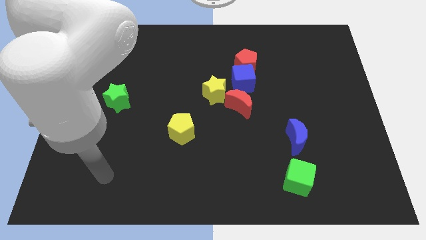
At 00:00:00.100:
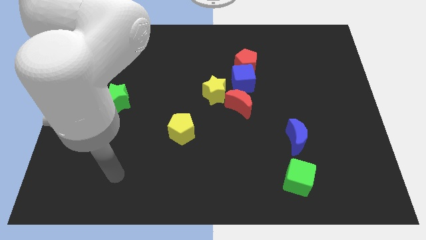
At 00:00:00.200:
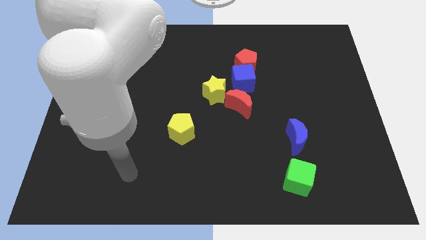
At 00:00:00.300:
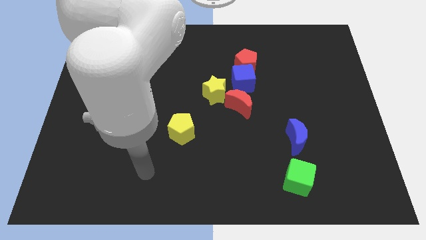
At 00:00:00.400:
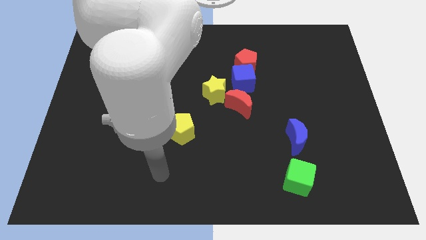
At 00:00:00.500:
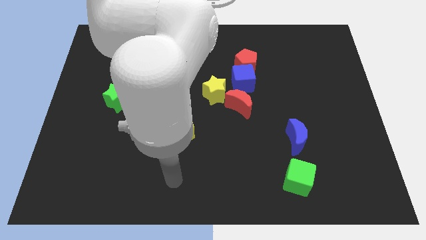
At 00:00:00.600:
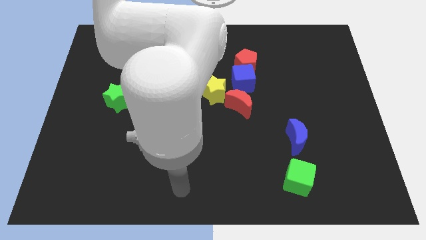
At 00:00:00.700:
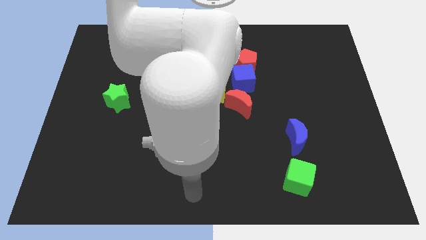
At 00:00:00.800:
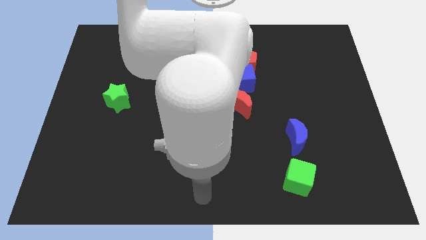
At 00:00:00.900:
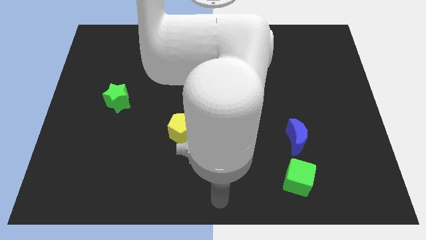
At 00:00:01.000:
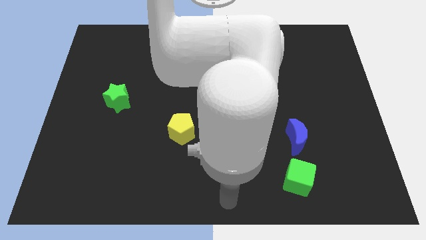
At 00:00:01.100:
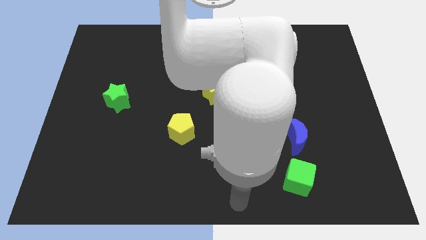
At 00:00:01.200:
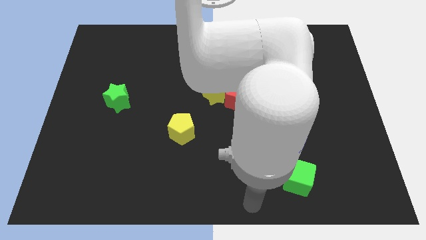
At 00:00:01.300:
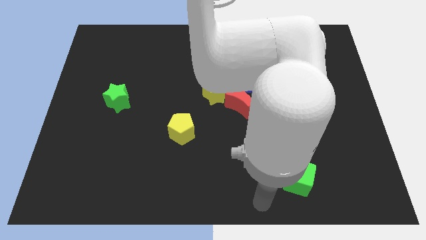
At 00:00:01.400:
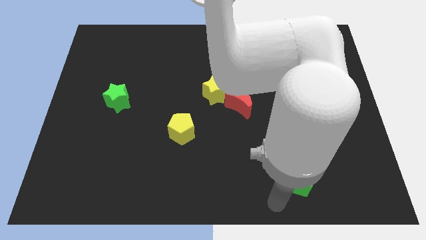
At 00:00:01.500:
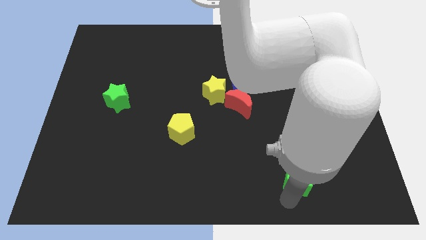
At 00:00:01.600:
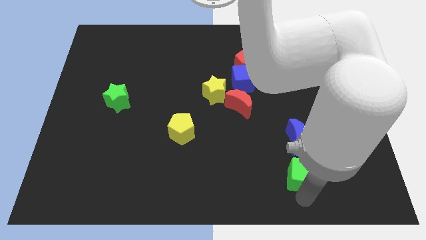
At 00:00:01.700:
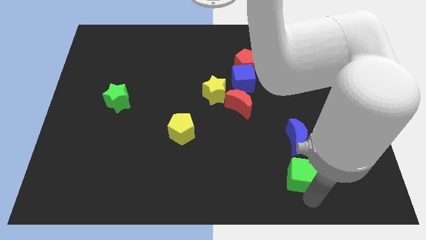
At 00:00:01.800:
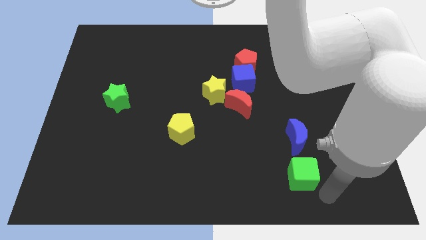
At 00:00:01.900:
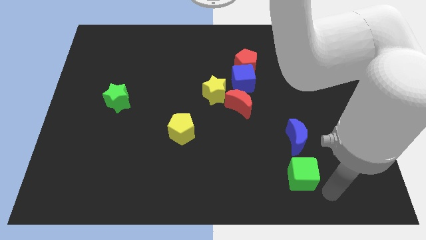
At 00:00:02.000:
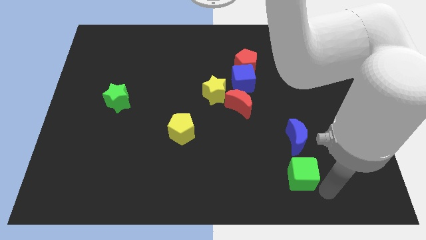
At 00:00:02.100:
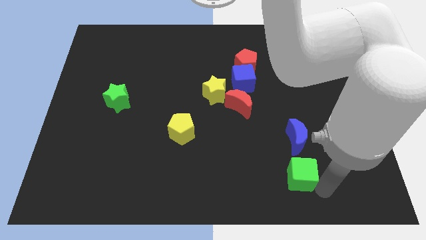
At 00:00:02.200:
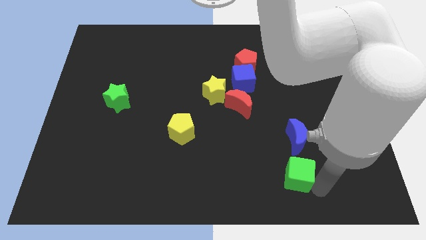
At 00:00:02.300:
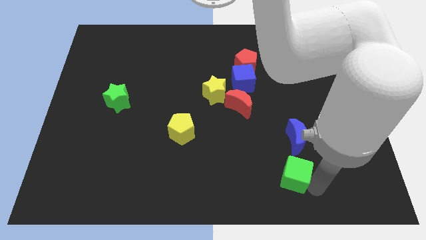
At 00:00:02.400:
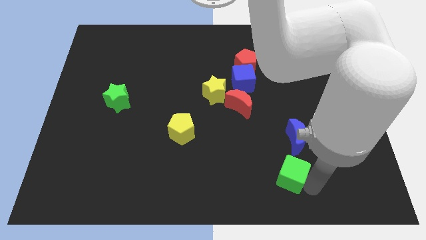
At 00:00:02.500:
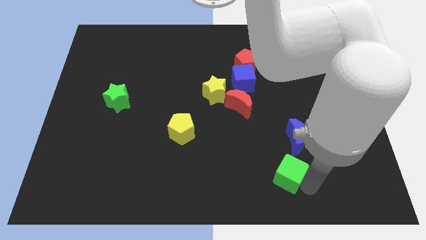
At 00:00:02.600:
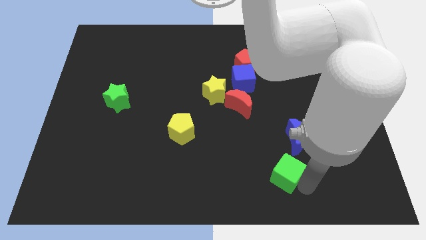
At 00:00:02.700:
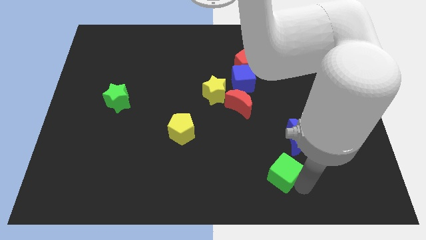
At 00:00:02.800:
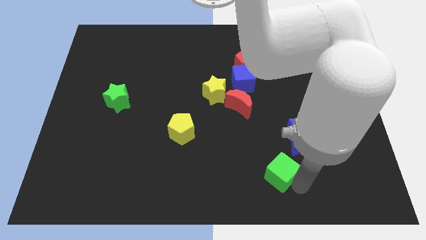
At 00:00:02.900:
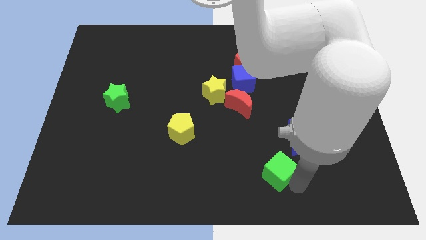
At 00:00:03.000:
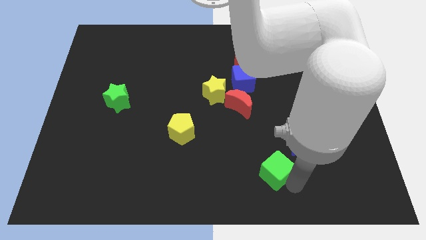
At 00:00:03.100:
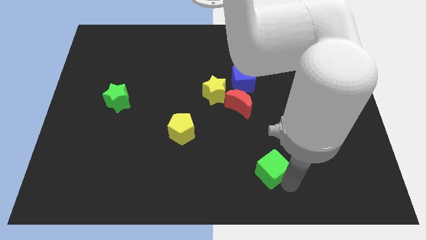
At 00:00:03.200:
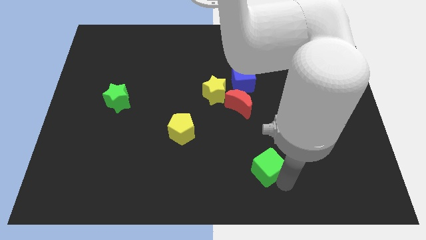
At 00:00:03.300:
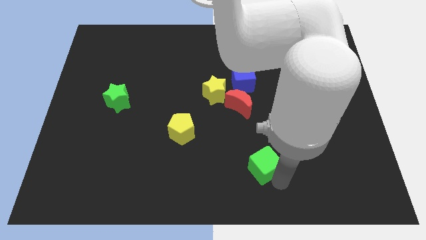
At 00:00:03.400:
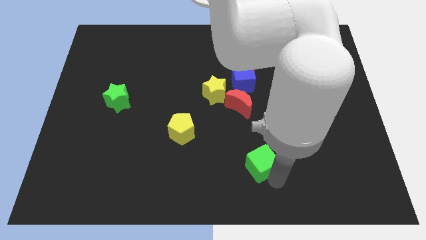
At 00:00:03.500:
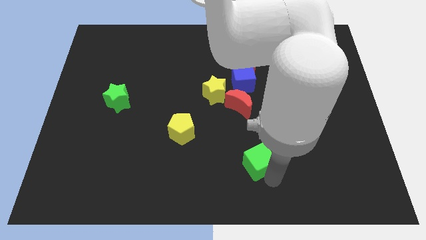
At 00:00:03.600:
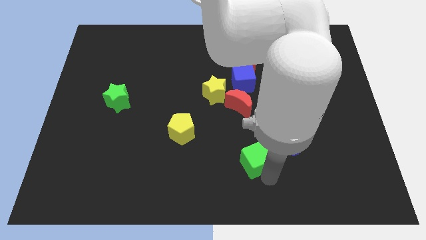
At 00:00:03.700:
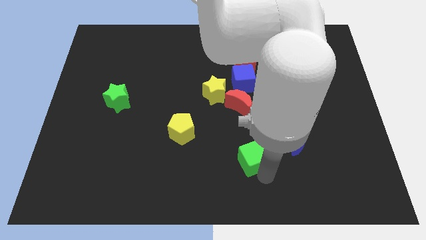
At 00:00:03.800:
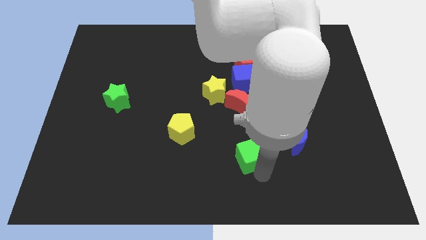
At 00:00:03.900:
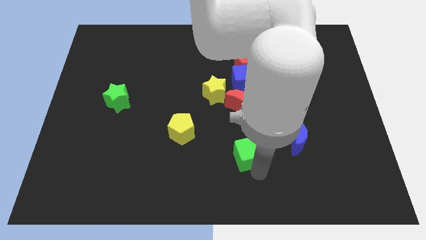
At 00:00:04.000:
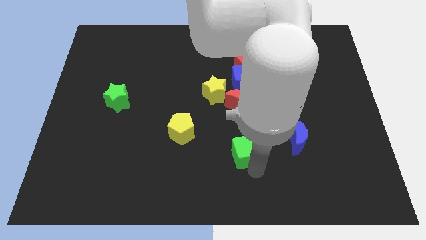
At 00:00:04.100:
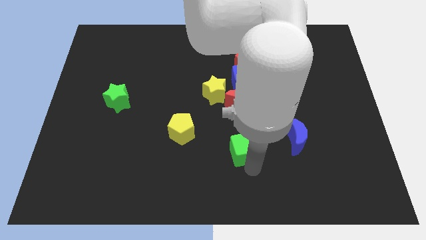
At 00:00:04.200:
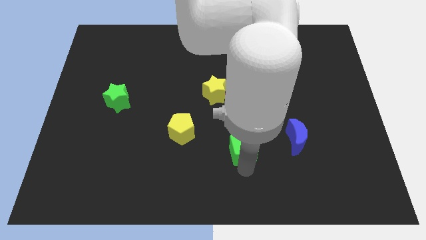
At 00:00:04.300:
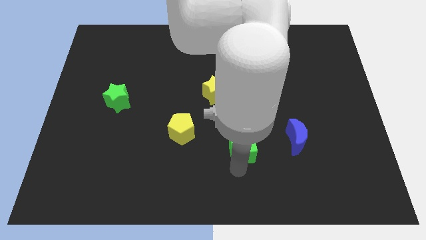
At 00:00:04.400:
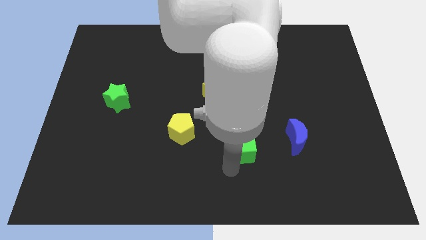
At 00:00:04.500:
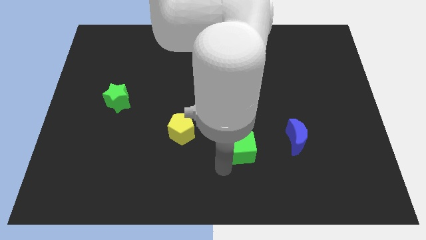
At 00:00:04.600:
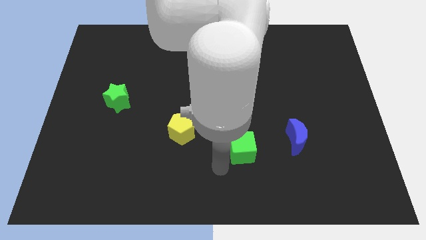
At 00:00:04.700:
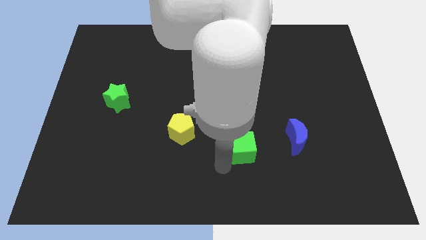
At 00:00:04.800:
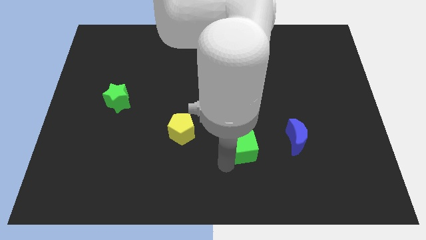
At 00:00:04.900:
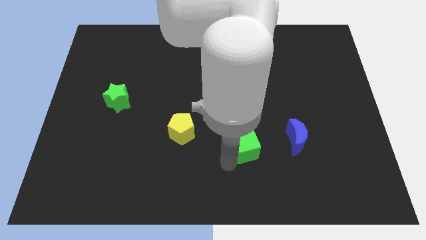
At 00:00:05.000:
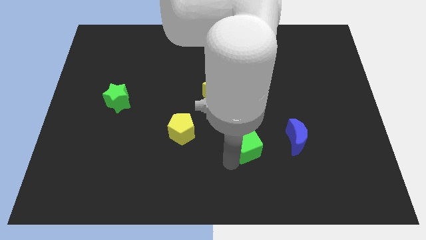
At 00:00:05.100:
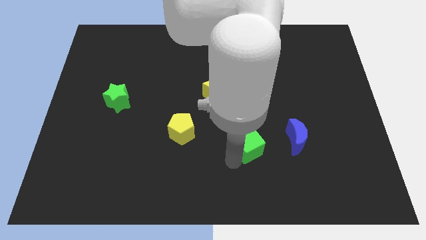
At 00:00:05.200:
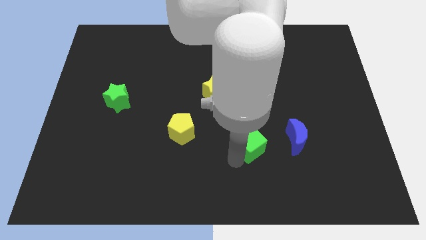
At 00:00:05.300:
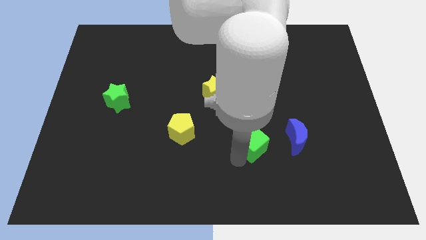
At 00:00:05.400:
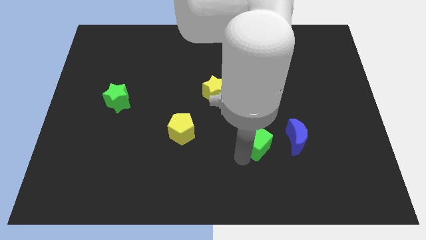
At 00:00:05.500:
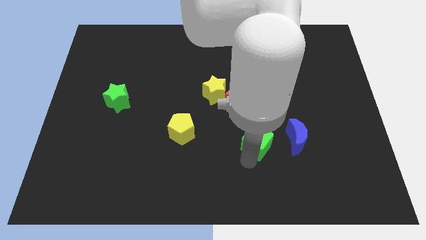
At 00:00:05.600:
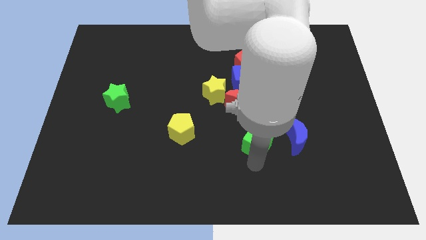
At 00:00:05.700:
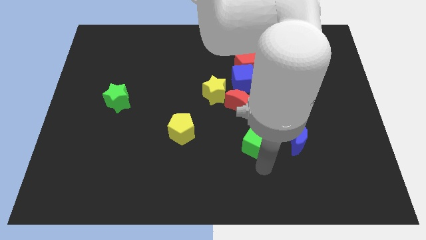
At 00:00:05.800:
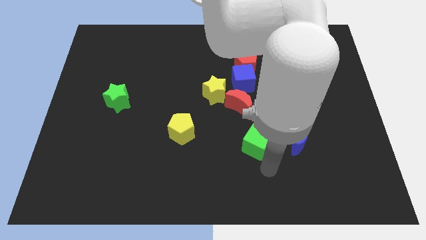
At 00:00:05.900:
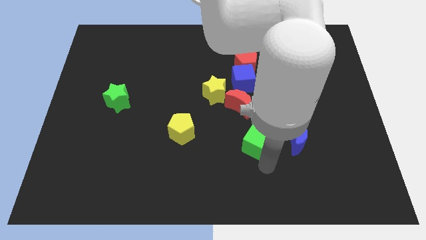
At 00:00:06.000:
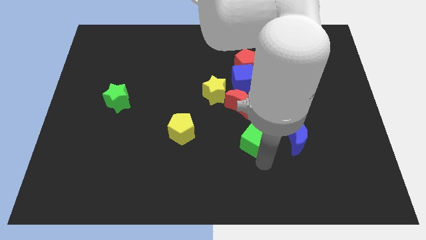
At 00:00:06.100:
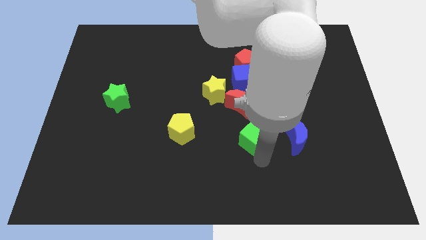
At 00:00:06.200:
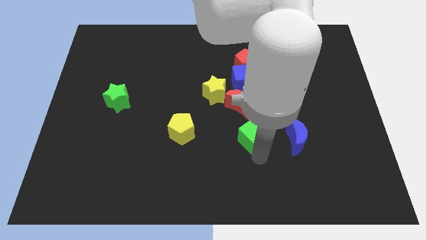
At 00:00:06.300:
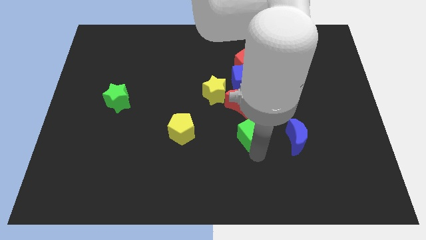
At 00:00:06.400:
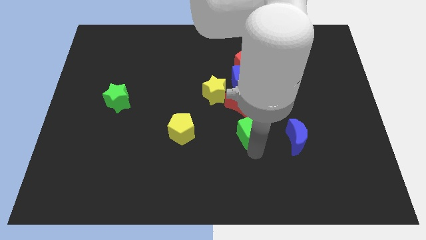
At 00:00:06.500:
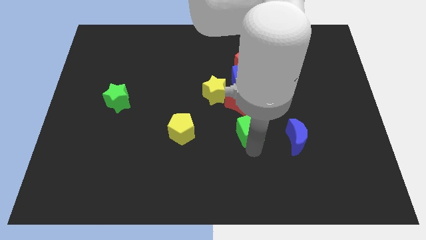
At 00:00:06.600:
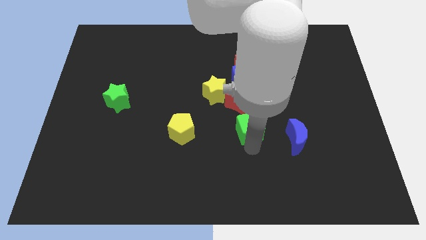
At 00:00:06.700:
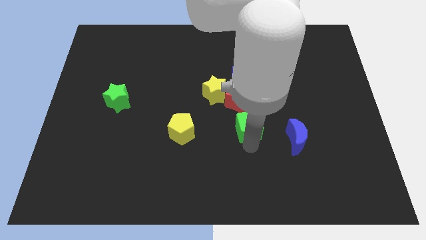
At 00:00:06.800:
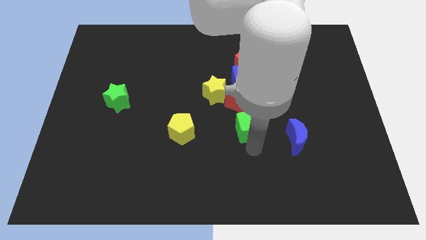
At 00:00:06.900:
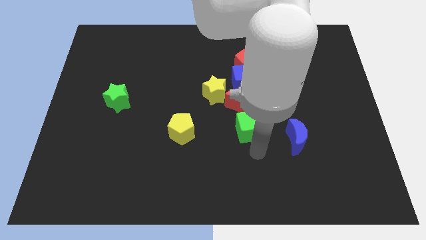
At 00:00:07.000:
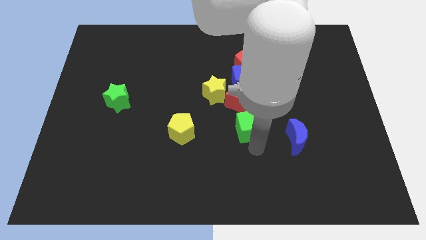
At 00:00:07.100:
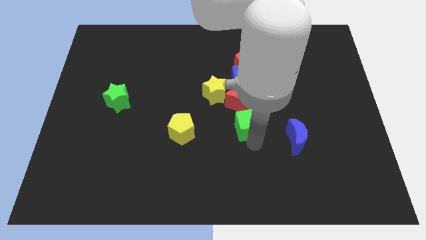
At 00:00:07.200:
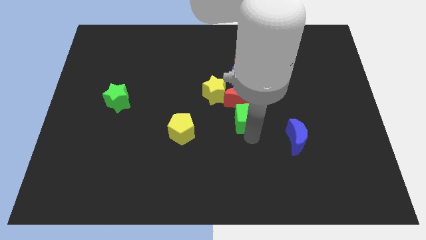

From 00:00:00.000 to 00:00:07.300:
move the green cube towards the red moon
